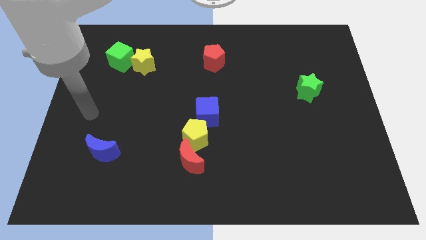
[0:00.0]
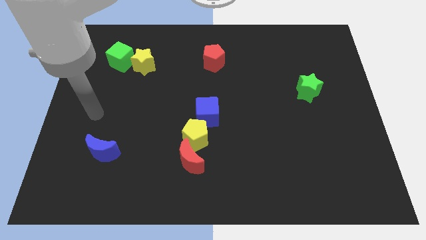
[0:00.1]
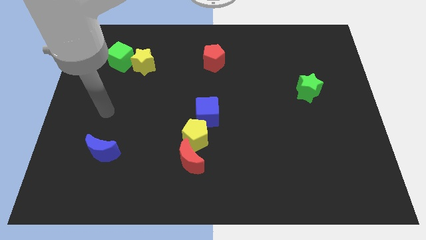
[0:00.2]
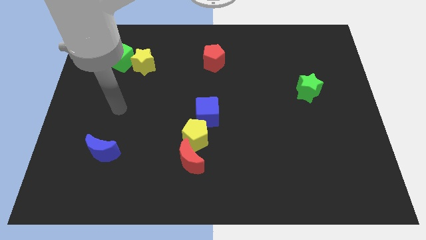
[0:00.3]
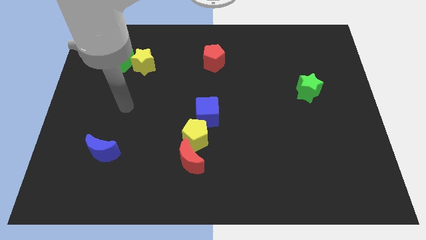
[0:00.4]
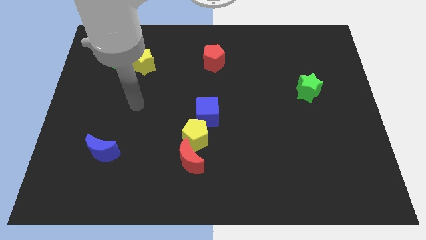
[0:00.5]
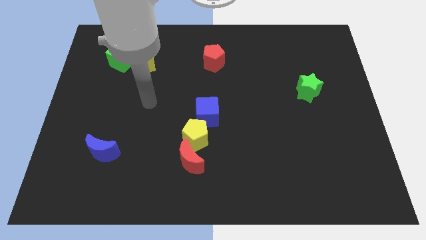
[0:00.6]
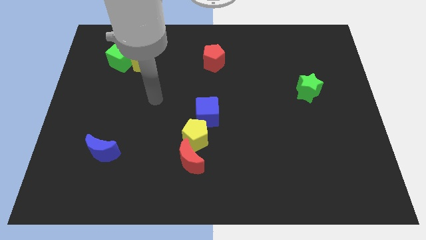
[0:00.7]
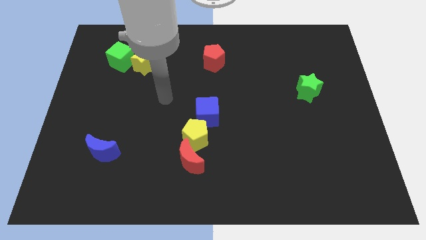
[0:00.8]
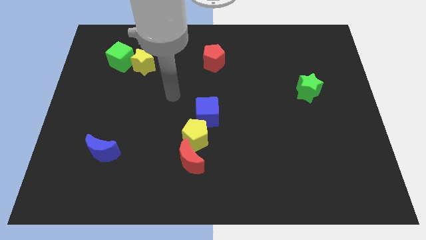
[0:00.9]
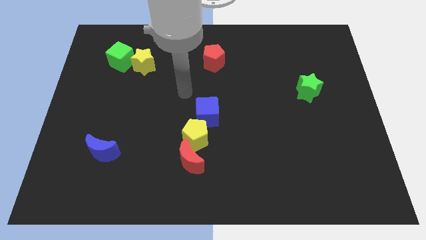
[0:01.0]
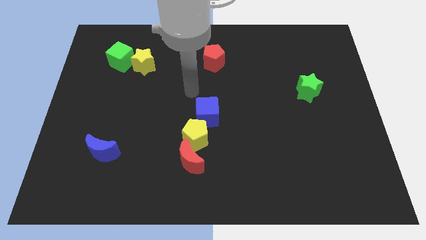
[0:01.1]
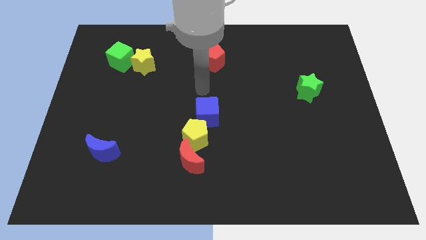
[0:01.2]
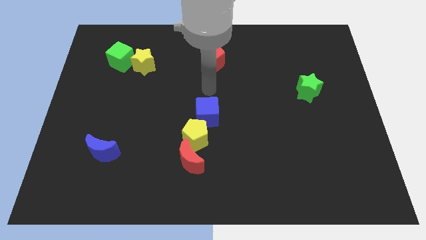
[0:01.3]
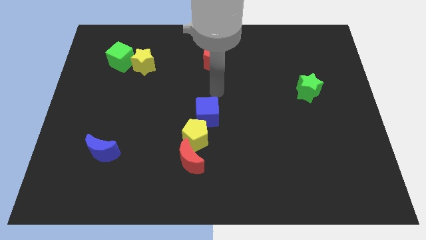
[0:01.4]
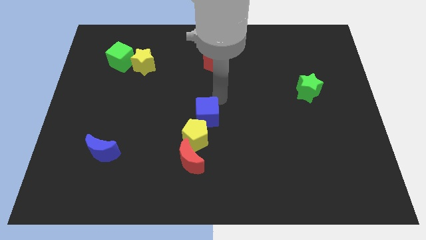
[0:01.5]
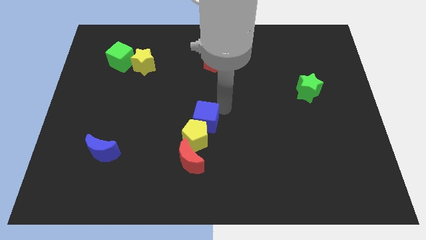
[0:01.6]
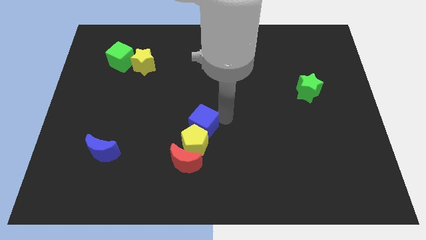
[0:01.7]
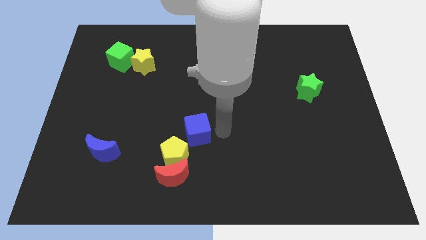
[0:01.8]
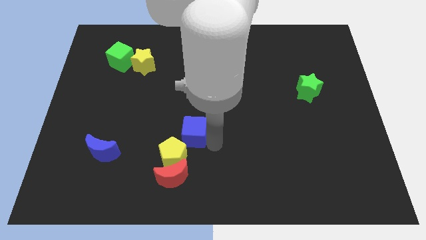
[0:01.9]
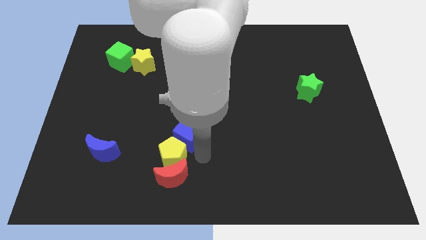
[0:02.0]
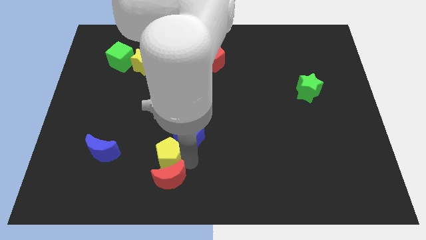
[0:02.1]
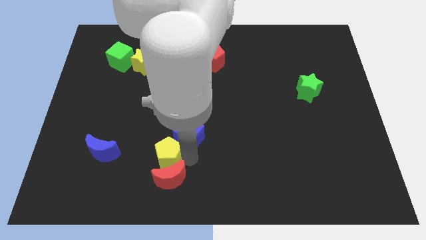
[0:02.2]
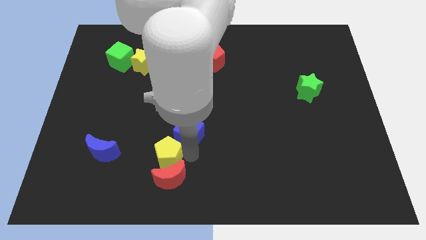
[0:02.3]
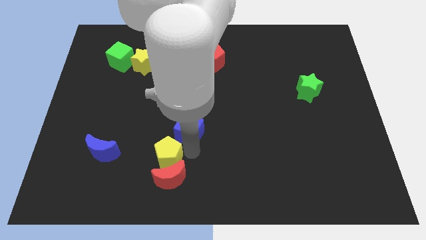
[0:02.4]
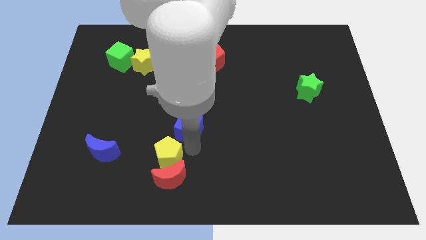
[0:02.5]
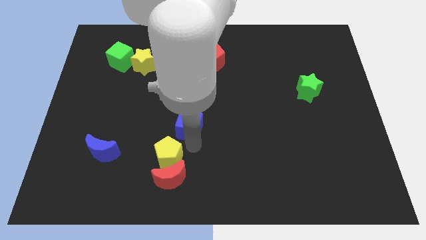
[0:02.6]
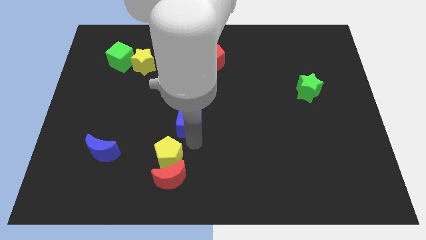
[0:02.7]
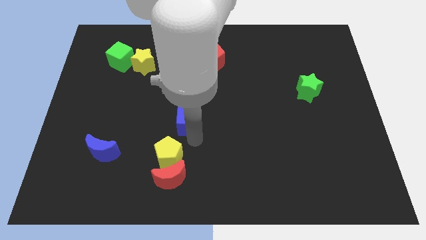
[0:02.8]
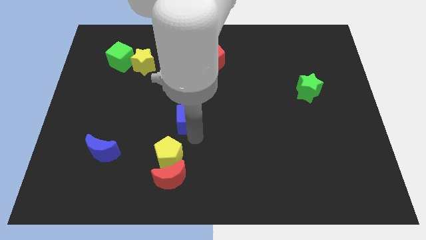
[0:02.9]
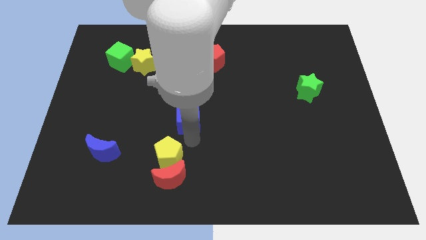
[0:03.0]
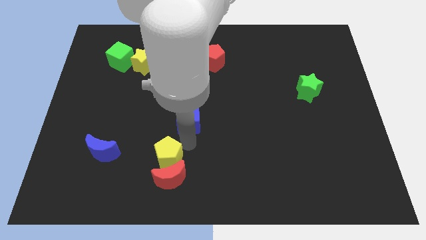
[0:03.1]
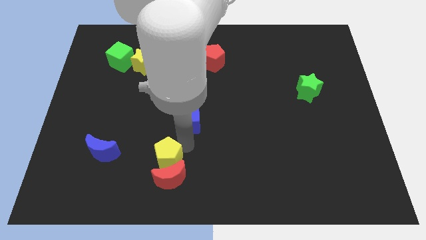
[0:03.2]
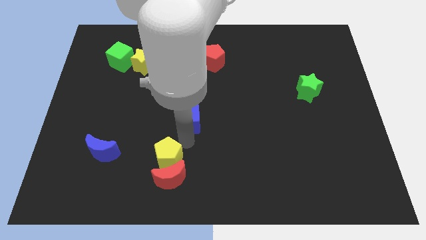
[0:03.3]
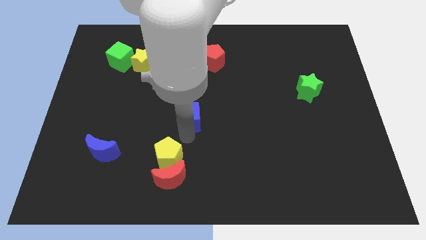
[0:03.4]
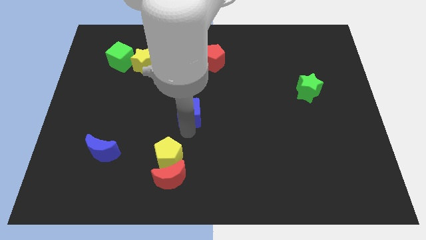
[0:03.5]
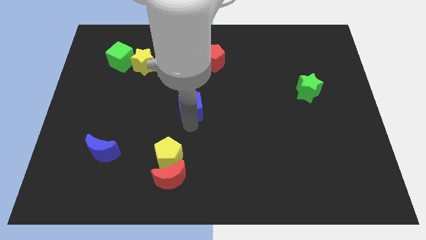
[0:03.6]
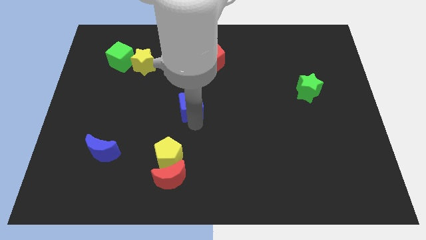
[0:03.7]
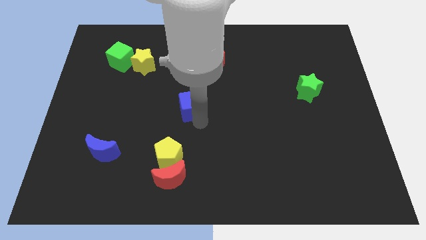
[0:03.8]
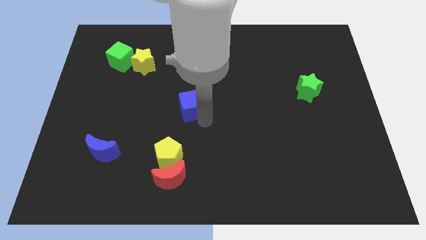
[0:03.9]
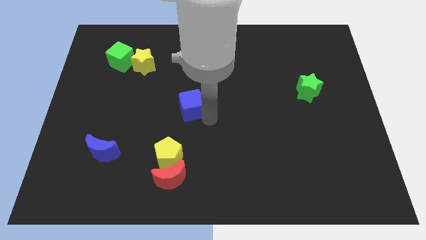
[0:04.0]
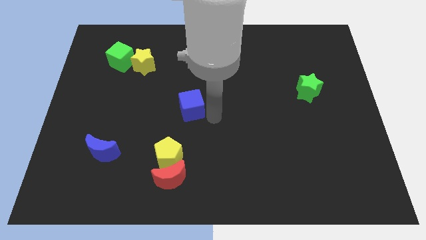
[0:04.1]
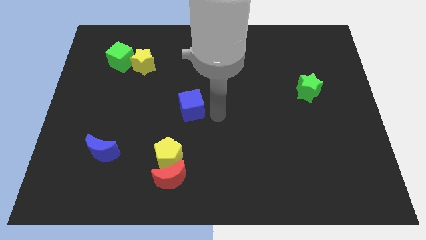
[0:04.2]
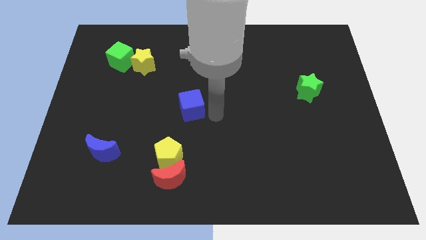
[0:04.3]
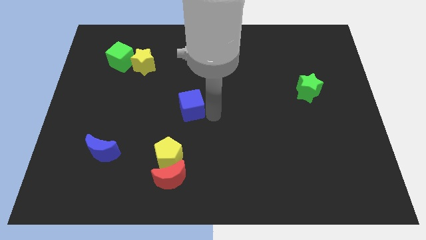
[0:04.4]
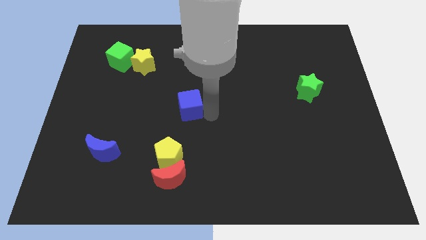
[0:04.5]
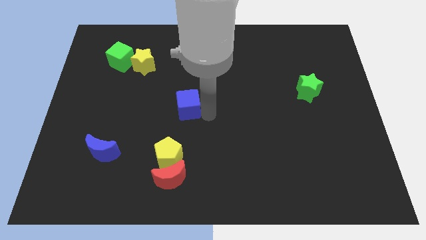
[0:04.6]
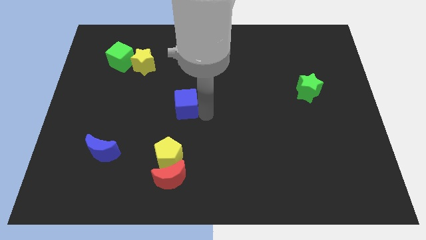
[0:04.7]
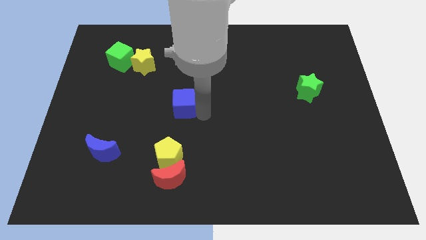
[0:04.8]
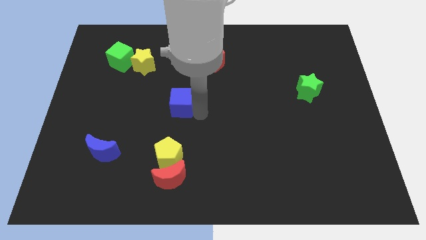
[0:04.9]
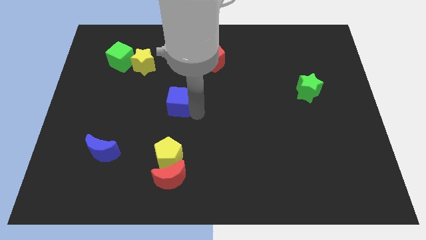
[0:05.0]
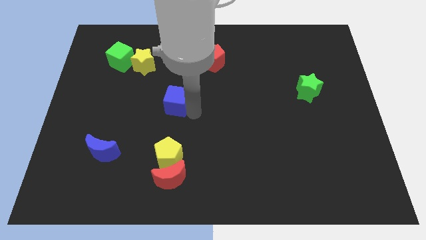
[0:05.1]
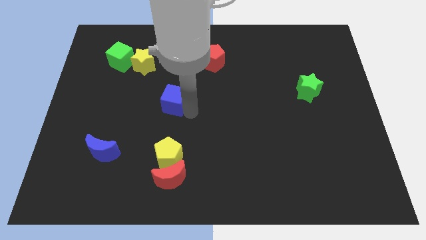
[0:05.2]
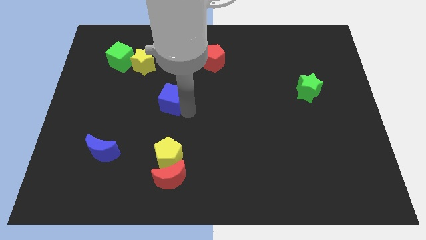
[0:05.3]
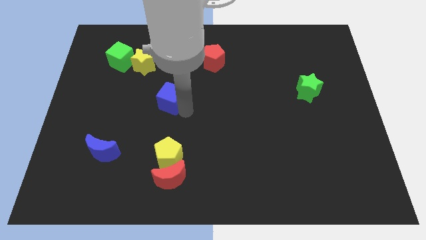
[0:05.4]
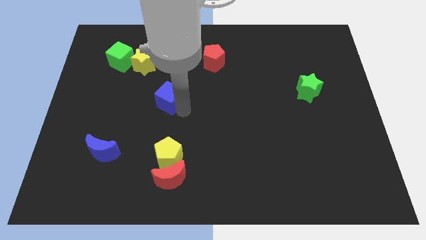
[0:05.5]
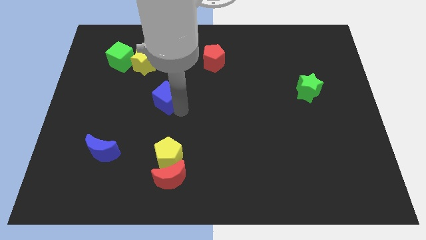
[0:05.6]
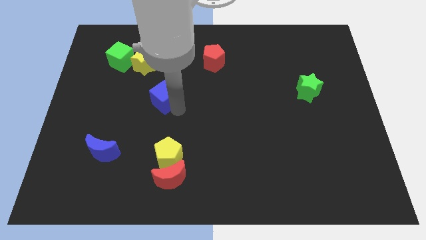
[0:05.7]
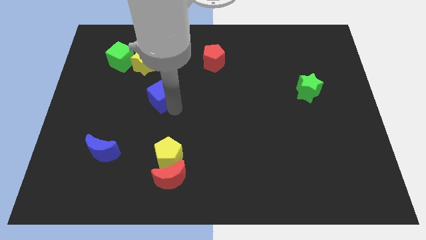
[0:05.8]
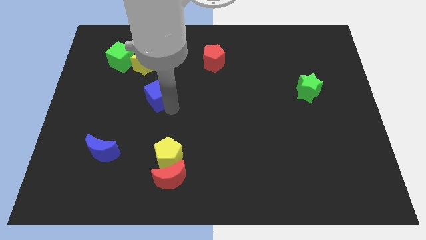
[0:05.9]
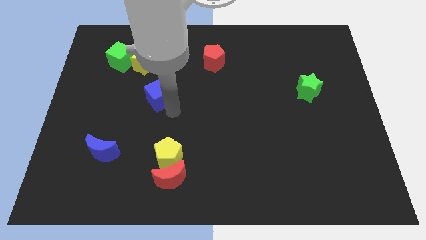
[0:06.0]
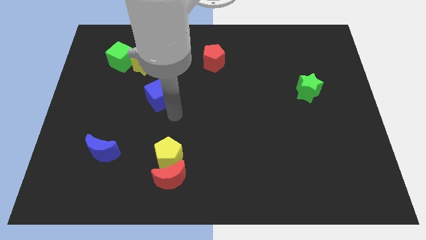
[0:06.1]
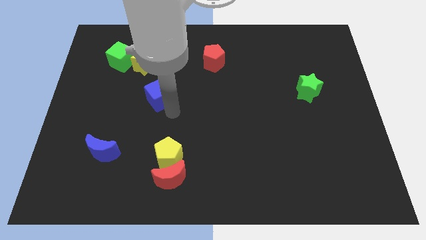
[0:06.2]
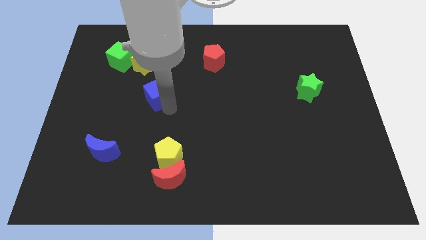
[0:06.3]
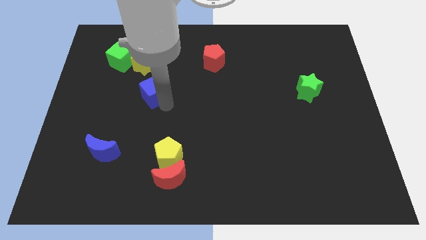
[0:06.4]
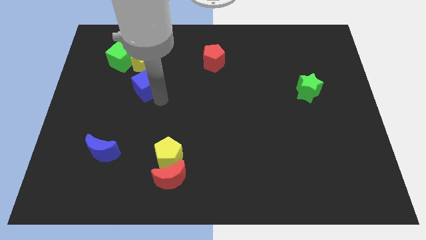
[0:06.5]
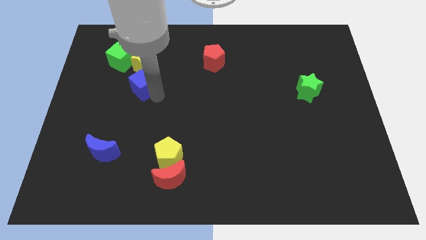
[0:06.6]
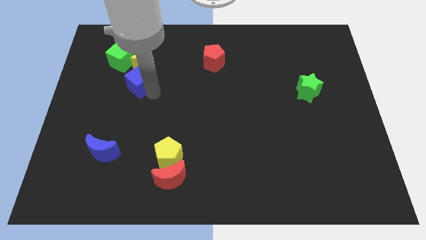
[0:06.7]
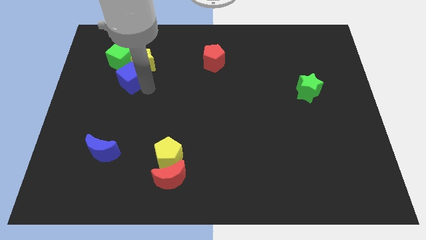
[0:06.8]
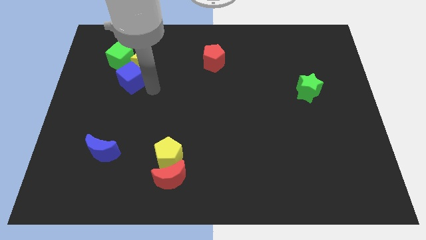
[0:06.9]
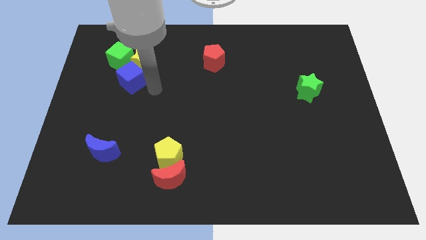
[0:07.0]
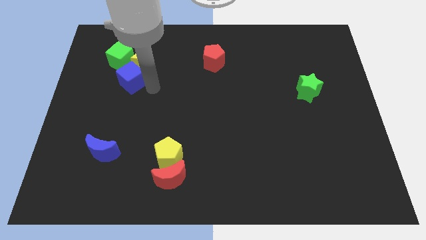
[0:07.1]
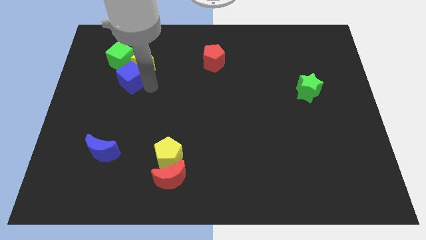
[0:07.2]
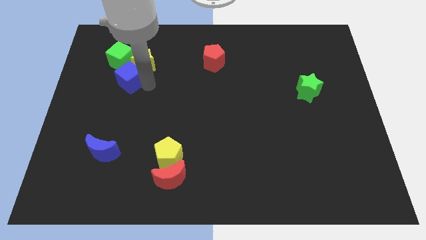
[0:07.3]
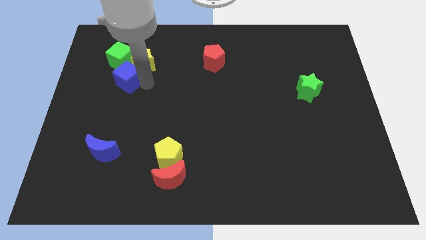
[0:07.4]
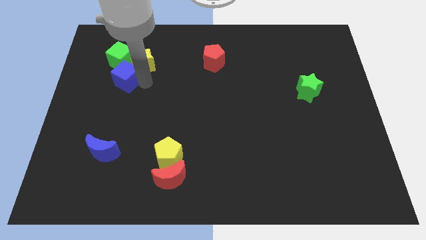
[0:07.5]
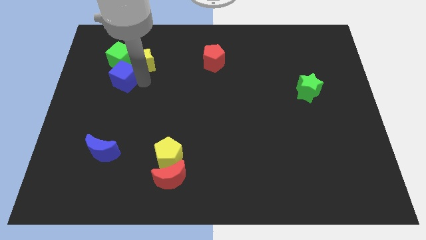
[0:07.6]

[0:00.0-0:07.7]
move the blue cube to the left side of the yellow star

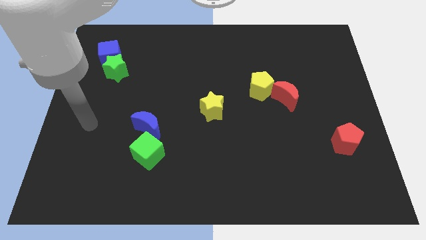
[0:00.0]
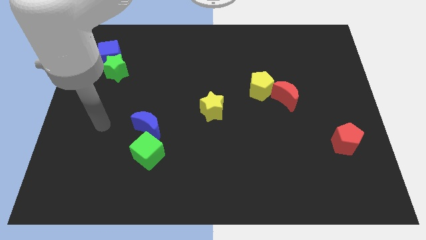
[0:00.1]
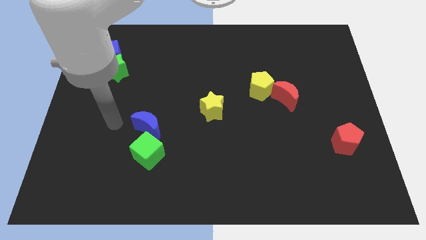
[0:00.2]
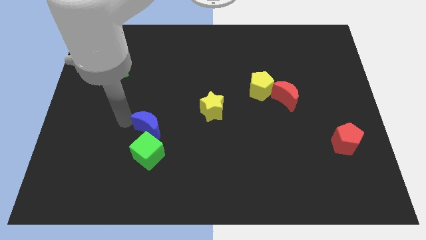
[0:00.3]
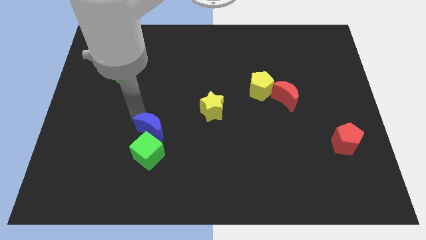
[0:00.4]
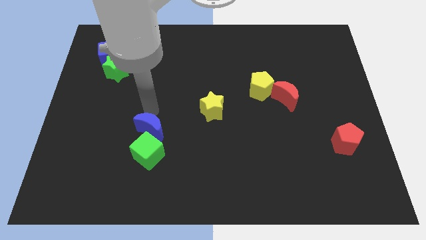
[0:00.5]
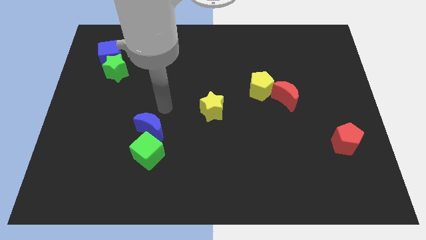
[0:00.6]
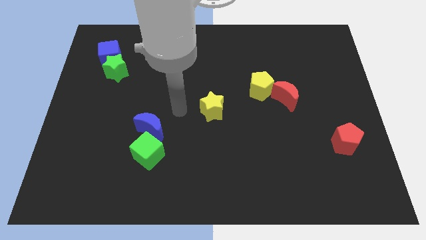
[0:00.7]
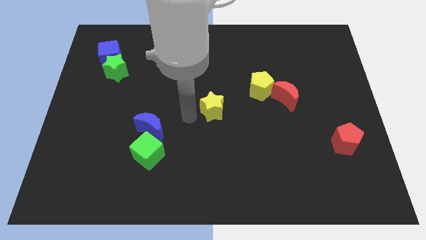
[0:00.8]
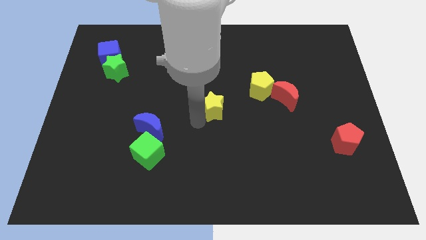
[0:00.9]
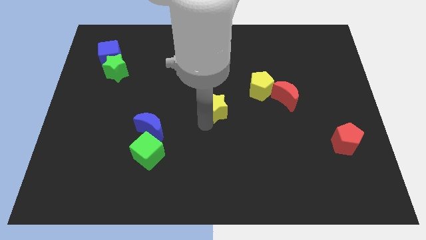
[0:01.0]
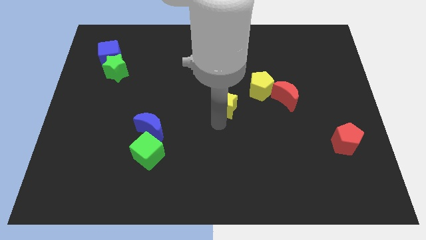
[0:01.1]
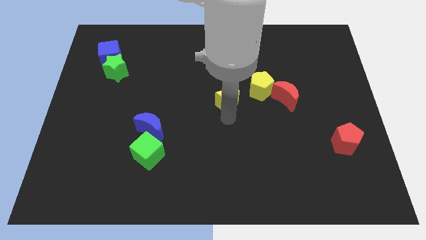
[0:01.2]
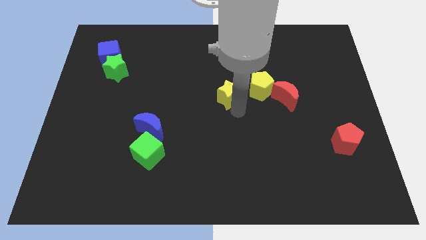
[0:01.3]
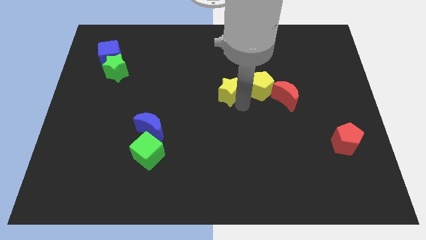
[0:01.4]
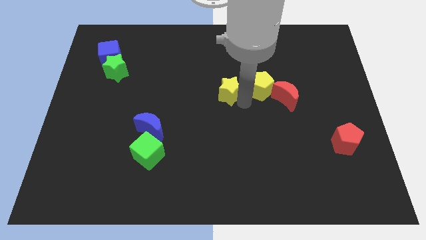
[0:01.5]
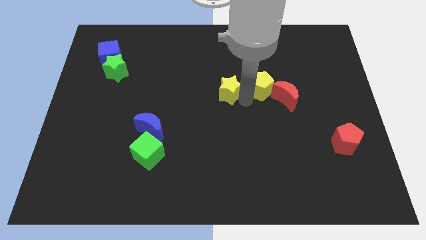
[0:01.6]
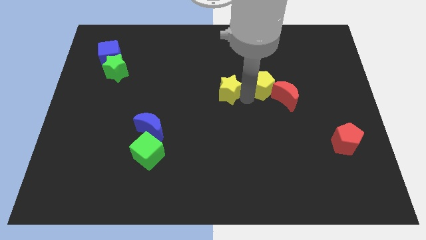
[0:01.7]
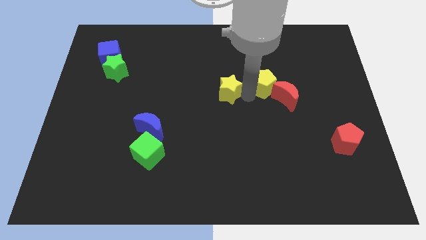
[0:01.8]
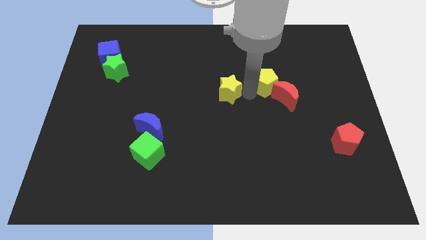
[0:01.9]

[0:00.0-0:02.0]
put the yellow pentagon above the red moon
